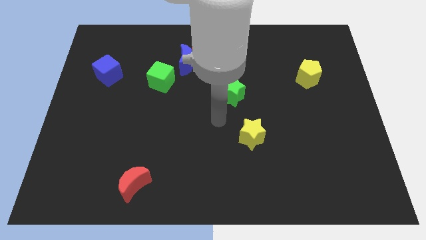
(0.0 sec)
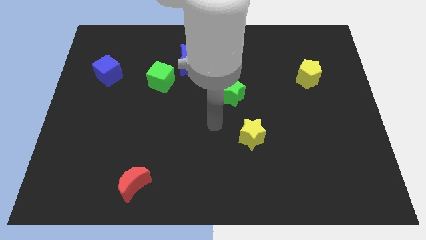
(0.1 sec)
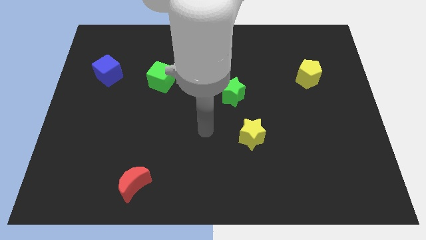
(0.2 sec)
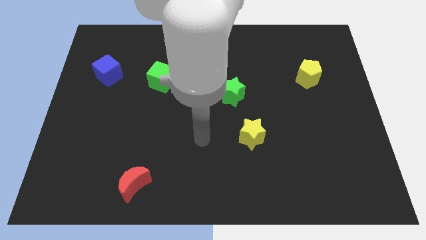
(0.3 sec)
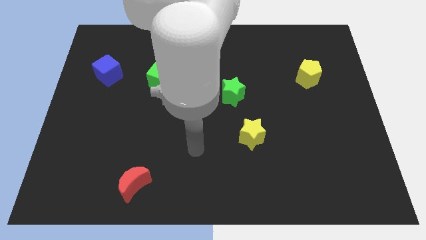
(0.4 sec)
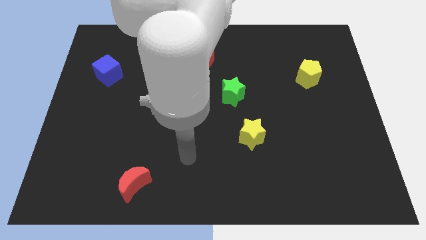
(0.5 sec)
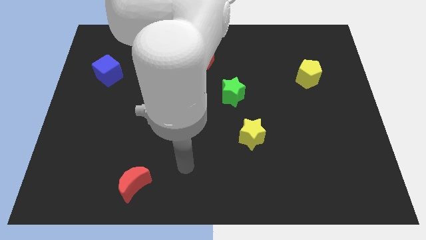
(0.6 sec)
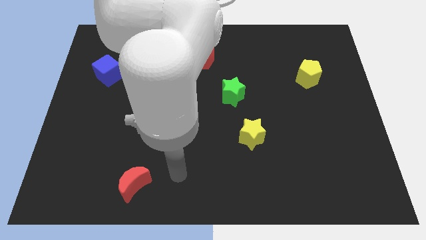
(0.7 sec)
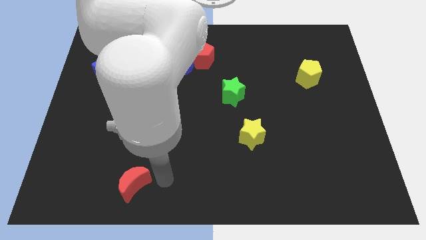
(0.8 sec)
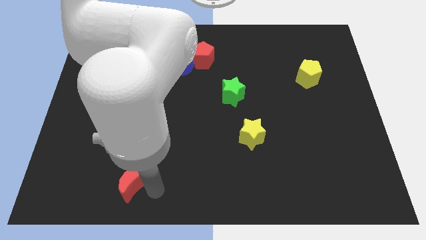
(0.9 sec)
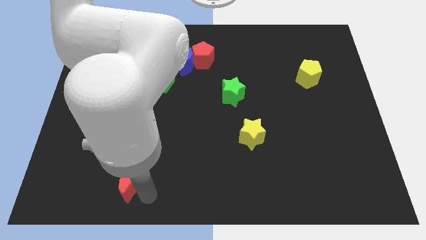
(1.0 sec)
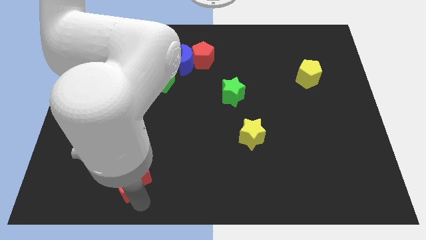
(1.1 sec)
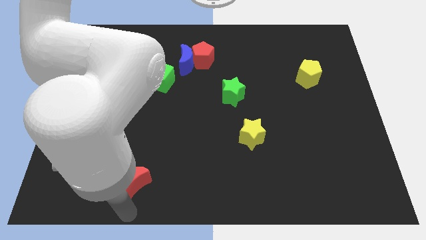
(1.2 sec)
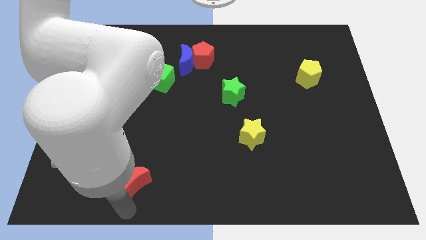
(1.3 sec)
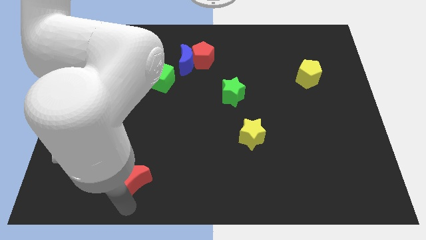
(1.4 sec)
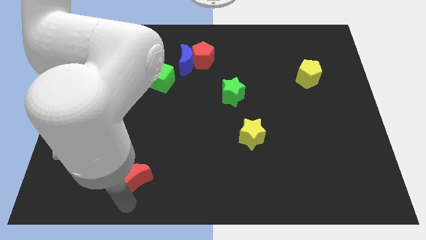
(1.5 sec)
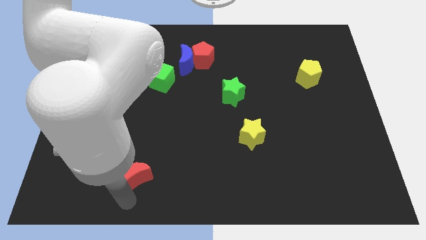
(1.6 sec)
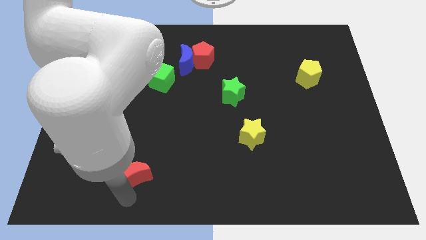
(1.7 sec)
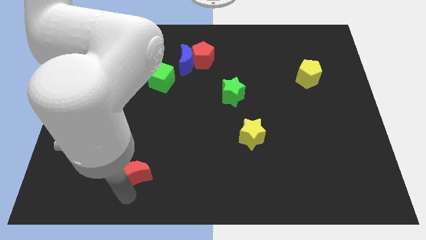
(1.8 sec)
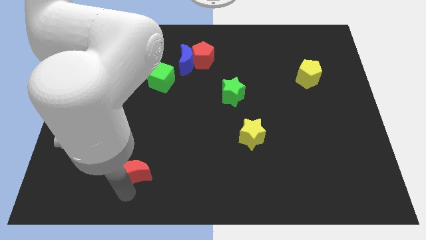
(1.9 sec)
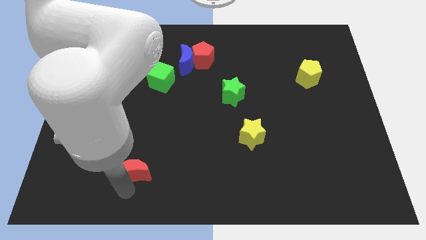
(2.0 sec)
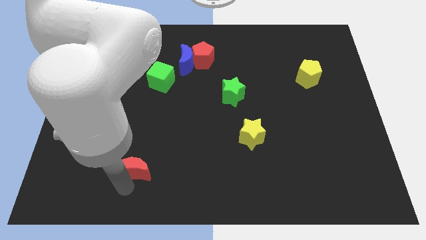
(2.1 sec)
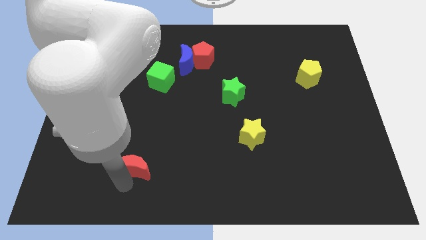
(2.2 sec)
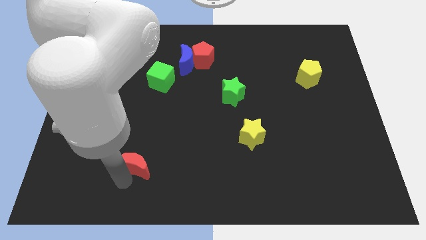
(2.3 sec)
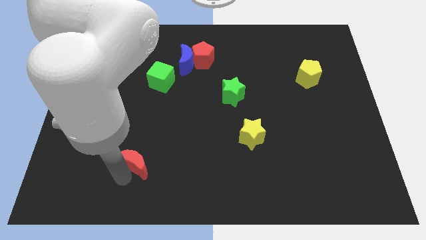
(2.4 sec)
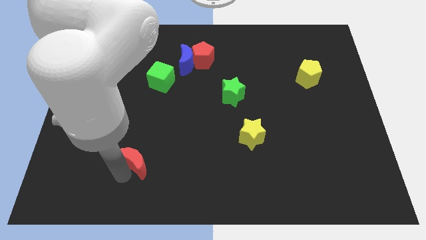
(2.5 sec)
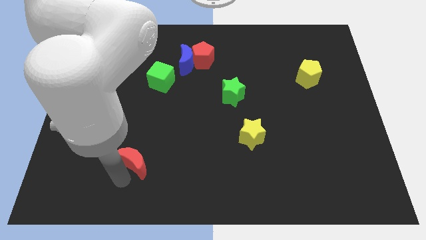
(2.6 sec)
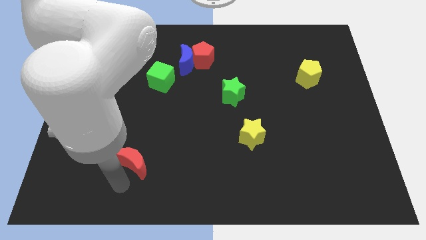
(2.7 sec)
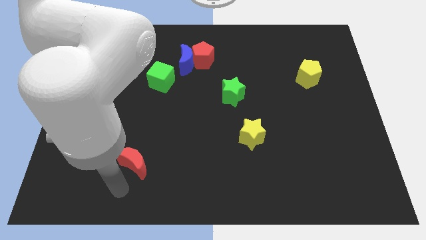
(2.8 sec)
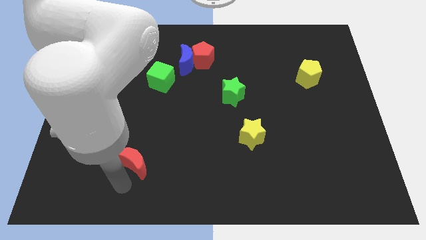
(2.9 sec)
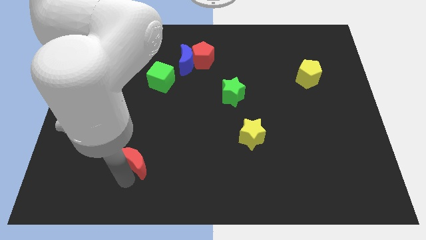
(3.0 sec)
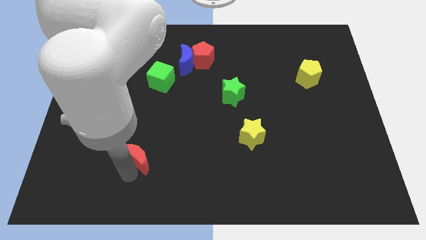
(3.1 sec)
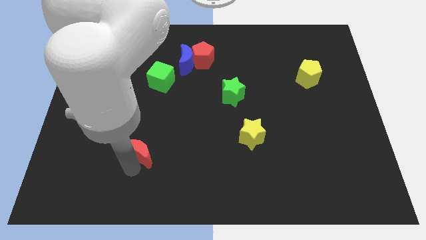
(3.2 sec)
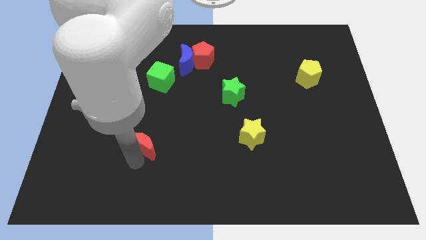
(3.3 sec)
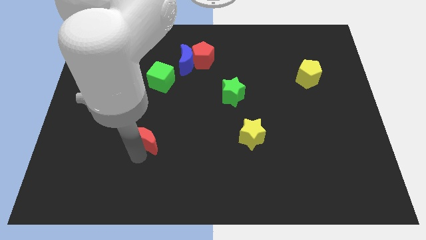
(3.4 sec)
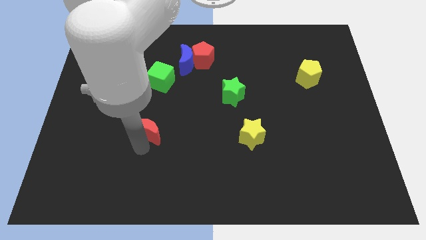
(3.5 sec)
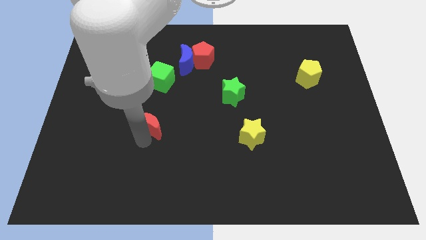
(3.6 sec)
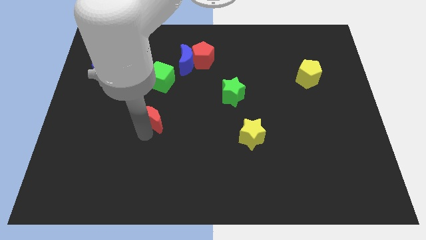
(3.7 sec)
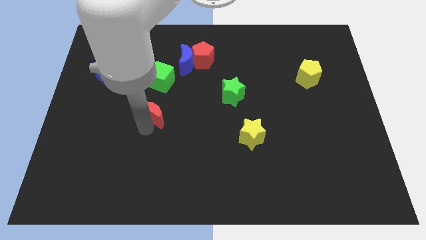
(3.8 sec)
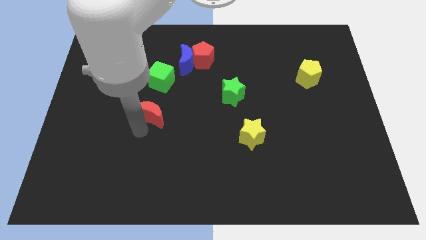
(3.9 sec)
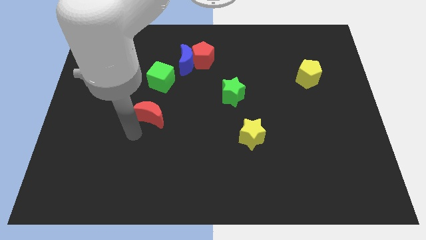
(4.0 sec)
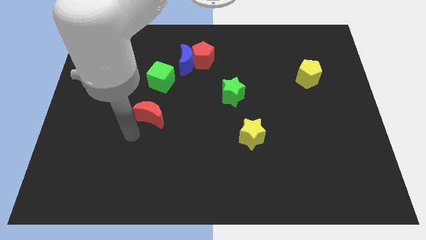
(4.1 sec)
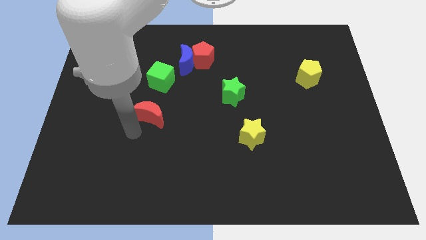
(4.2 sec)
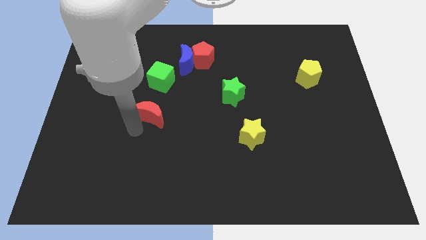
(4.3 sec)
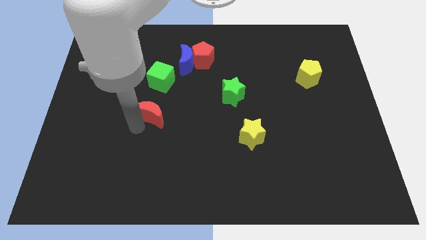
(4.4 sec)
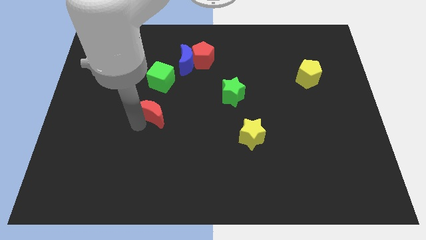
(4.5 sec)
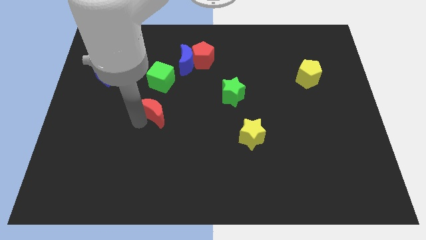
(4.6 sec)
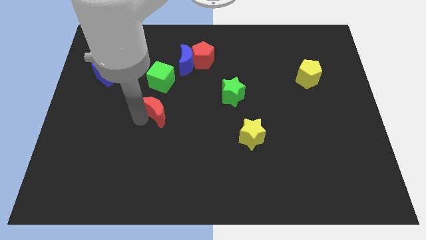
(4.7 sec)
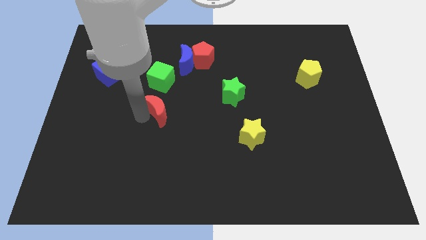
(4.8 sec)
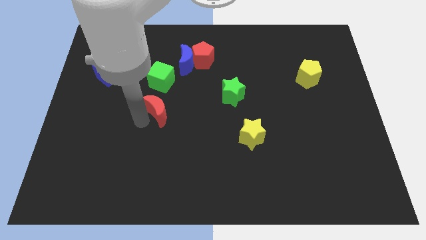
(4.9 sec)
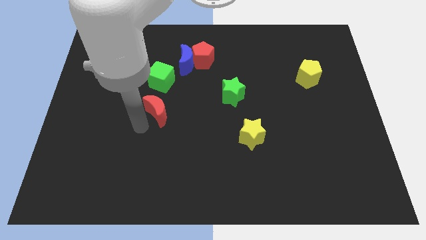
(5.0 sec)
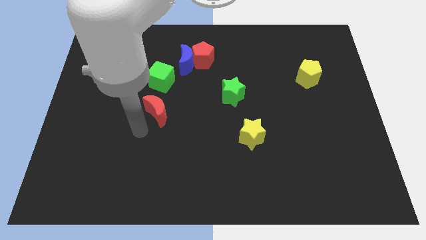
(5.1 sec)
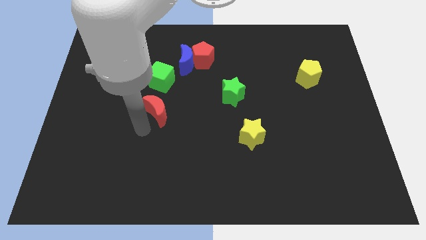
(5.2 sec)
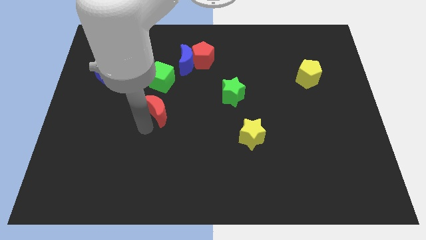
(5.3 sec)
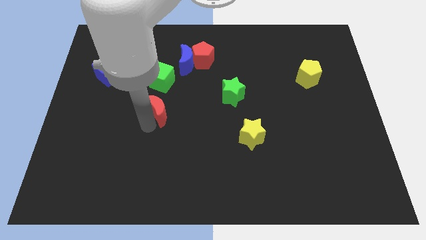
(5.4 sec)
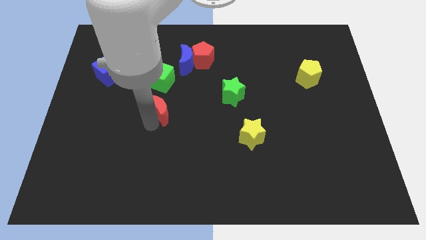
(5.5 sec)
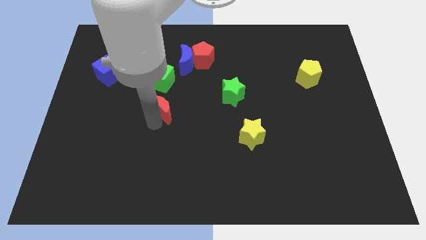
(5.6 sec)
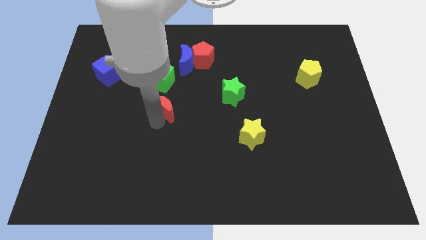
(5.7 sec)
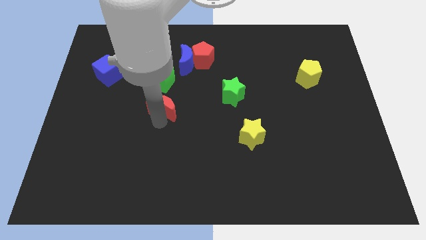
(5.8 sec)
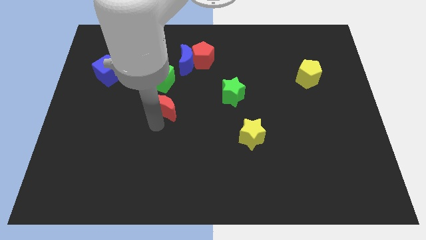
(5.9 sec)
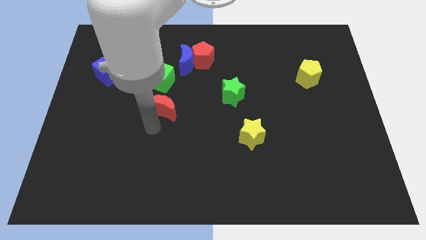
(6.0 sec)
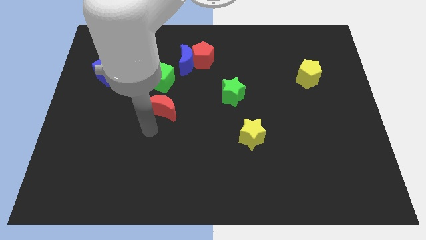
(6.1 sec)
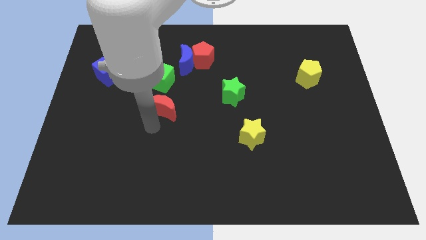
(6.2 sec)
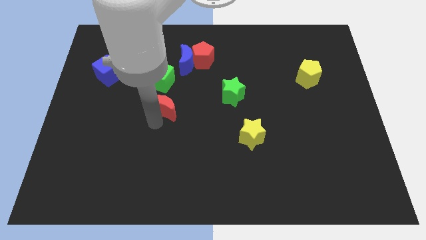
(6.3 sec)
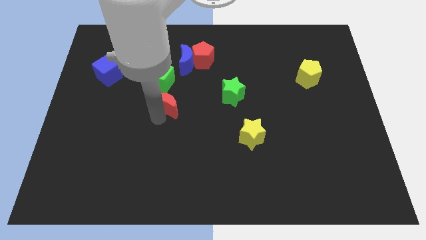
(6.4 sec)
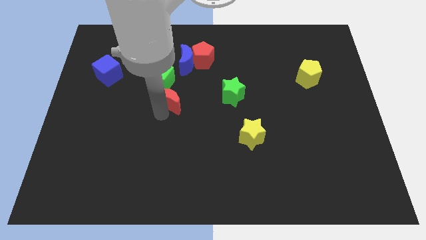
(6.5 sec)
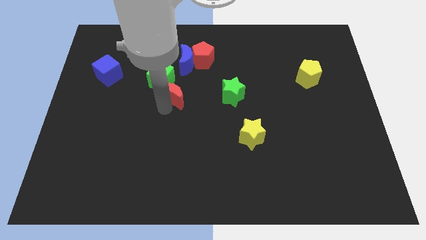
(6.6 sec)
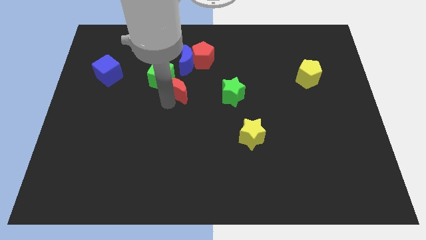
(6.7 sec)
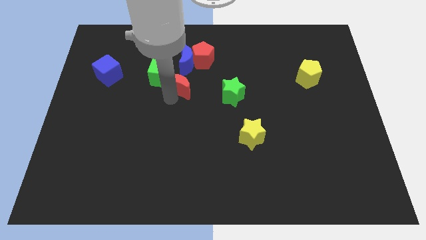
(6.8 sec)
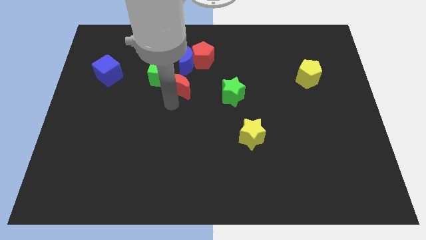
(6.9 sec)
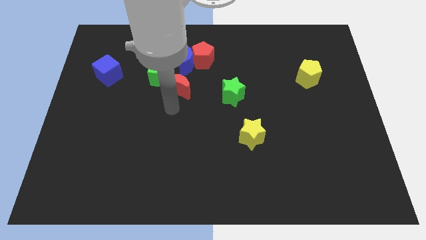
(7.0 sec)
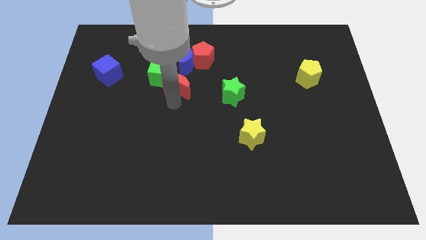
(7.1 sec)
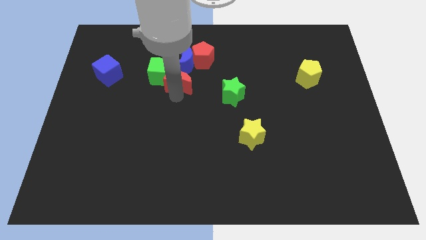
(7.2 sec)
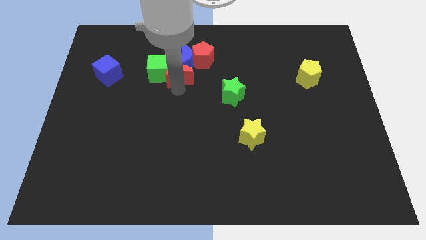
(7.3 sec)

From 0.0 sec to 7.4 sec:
push the red moon to the blue moon
